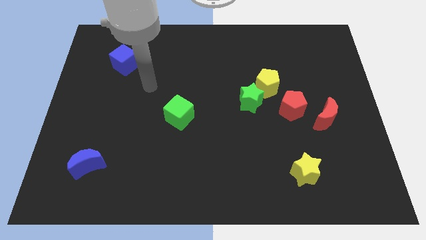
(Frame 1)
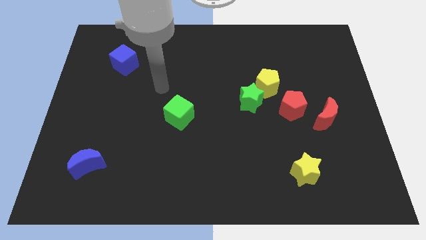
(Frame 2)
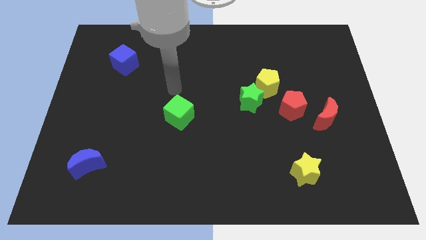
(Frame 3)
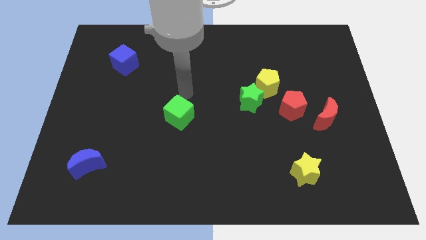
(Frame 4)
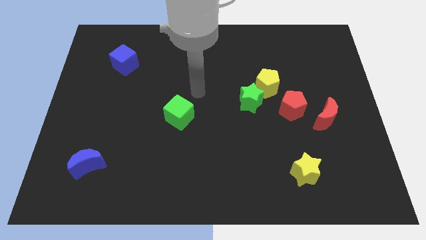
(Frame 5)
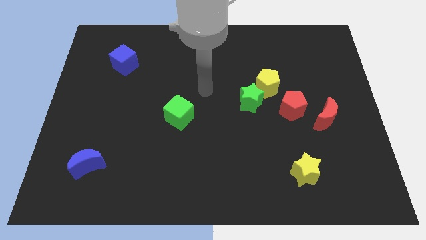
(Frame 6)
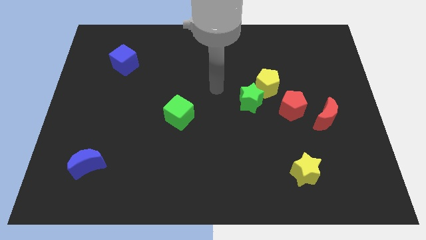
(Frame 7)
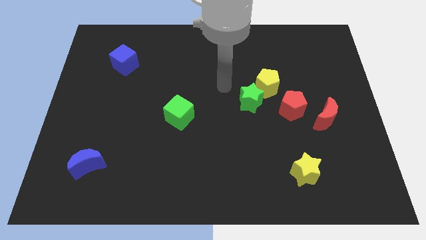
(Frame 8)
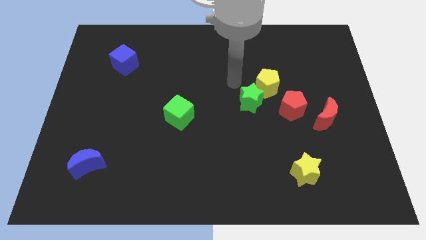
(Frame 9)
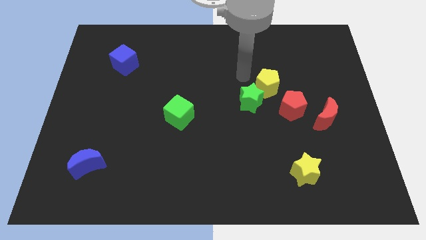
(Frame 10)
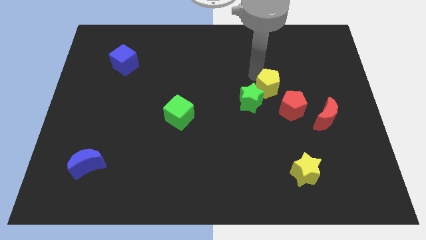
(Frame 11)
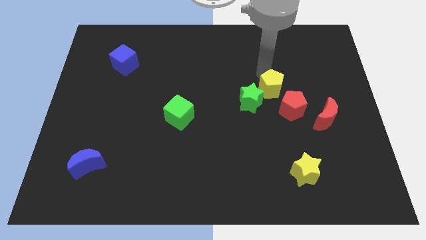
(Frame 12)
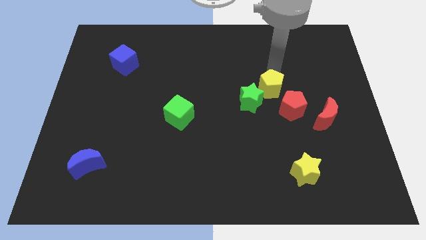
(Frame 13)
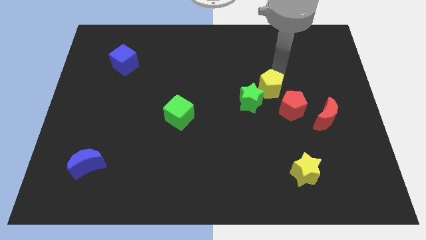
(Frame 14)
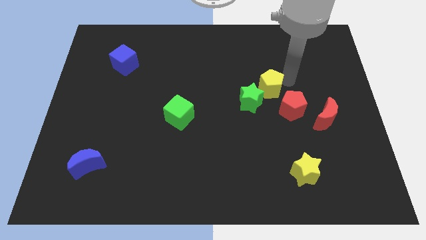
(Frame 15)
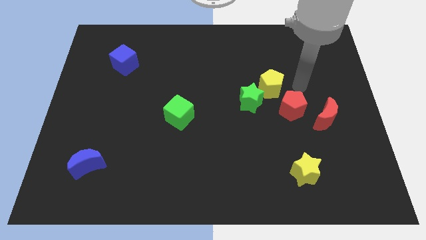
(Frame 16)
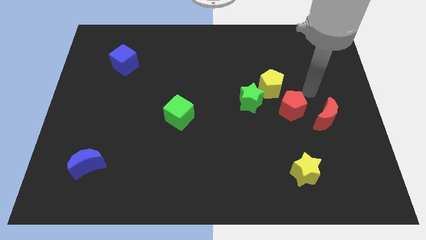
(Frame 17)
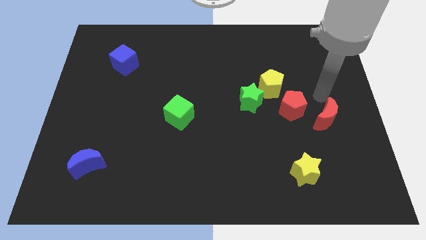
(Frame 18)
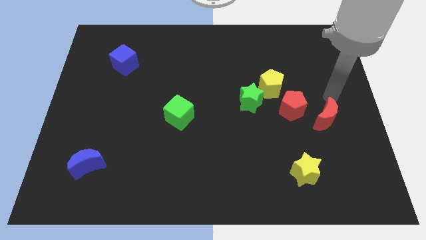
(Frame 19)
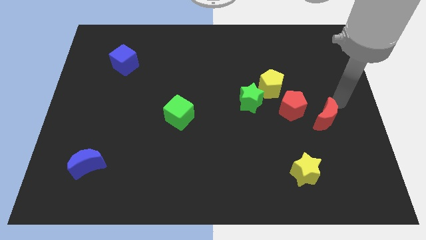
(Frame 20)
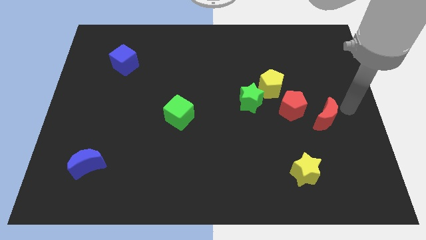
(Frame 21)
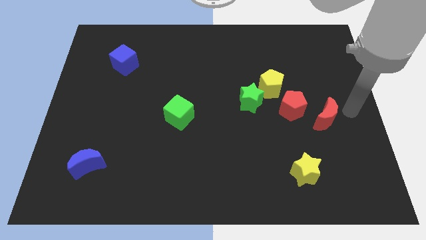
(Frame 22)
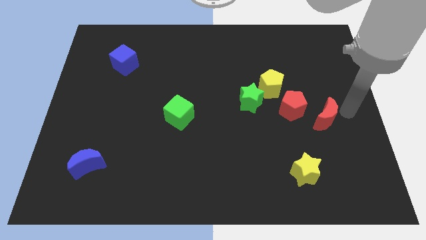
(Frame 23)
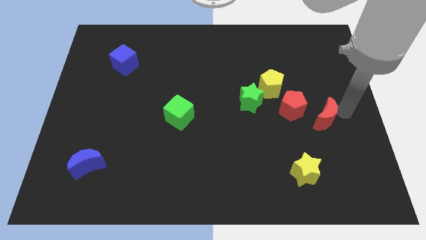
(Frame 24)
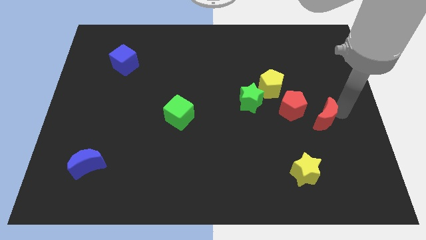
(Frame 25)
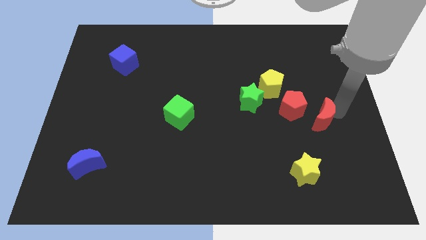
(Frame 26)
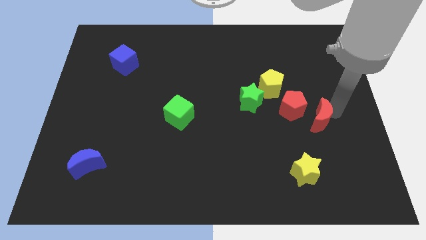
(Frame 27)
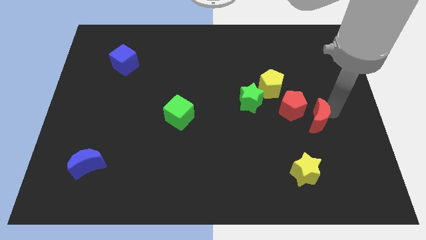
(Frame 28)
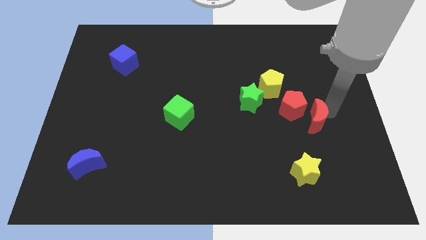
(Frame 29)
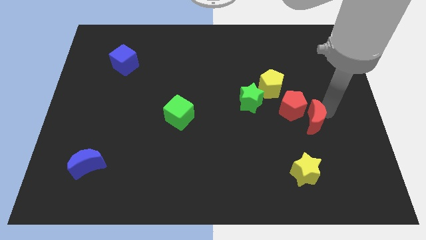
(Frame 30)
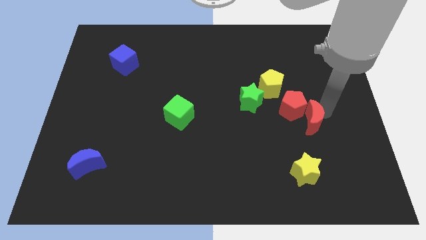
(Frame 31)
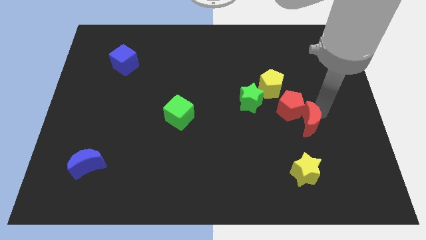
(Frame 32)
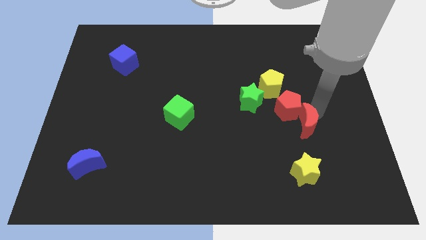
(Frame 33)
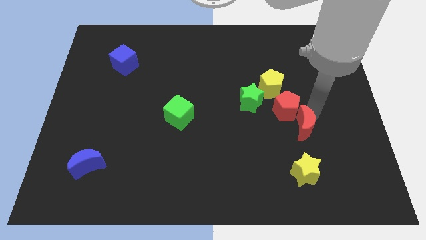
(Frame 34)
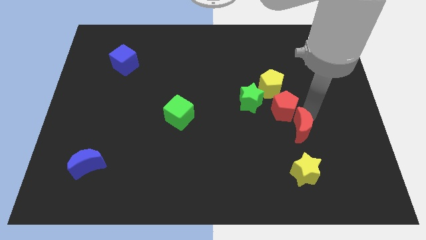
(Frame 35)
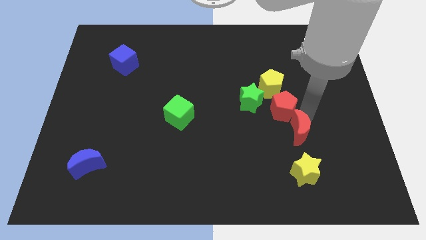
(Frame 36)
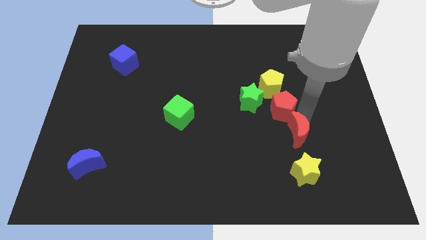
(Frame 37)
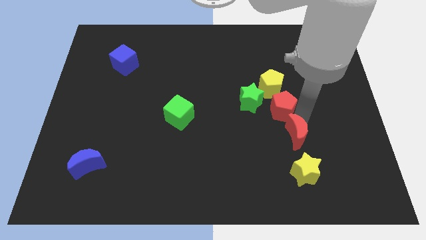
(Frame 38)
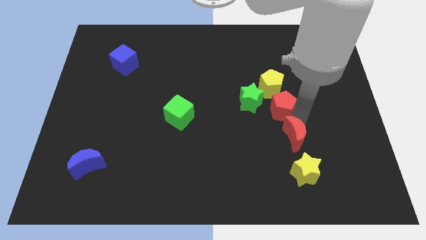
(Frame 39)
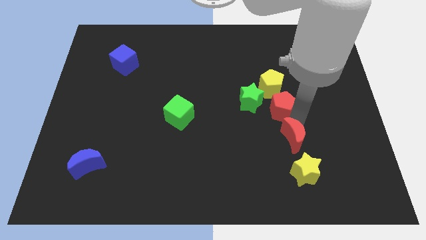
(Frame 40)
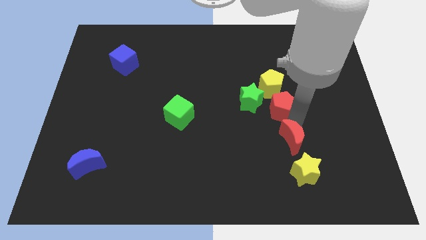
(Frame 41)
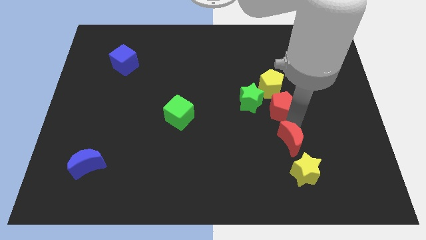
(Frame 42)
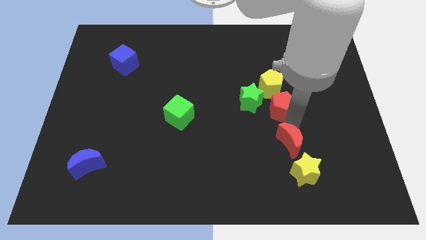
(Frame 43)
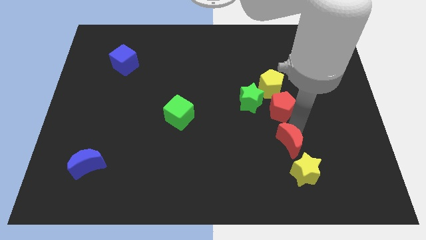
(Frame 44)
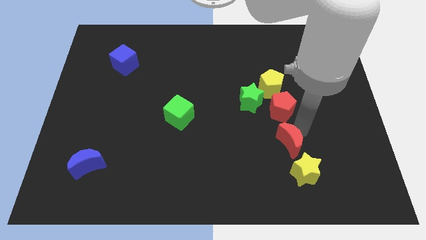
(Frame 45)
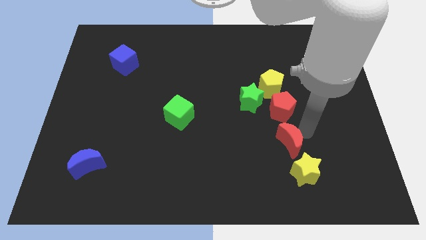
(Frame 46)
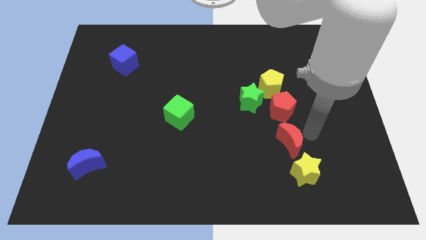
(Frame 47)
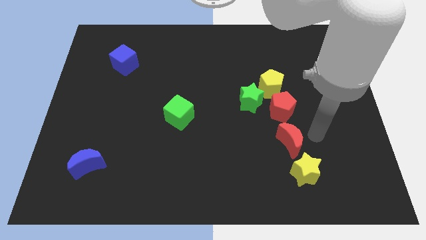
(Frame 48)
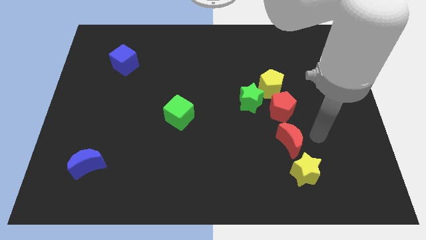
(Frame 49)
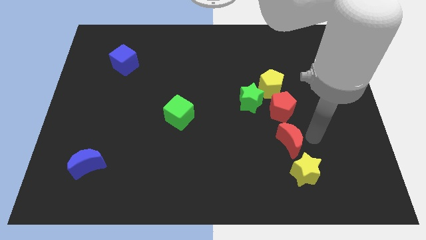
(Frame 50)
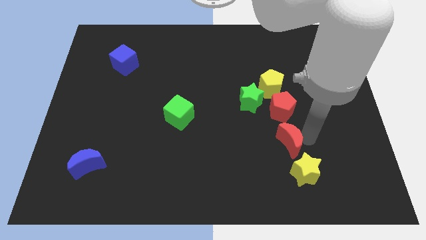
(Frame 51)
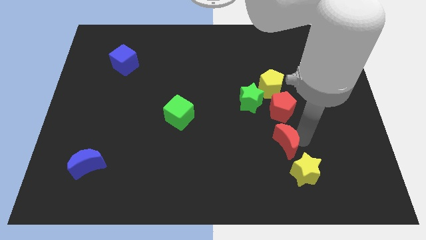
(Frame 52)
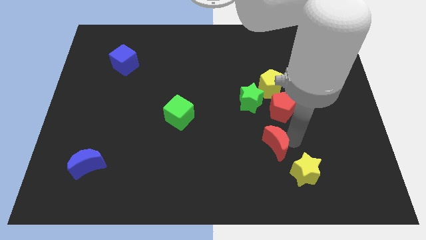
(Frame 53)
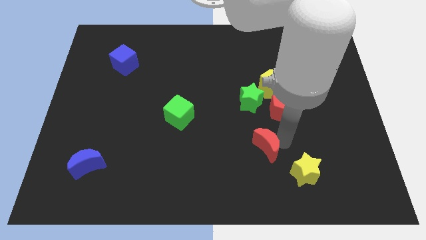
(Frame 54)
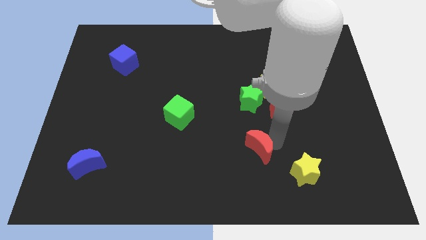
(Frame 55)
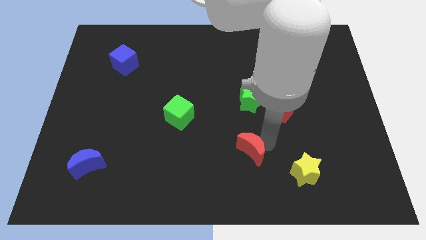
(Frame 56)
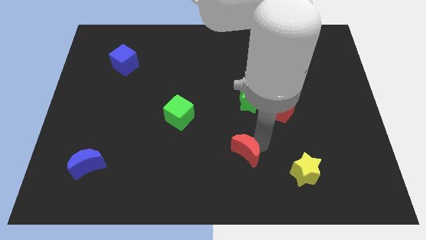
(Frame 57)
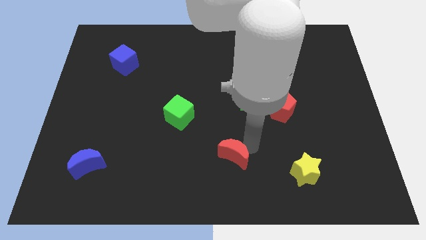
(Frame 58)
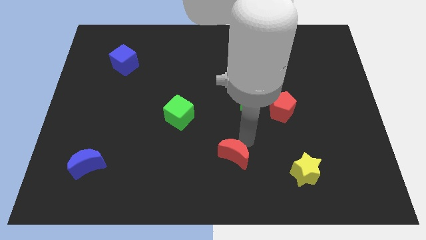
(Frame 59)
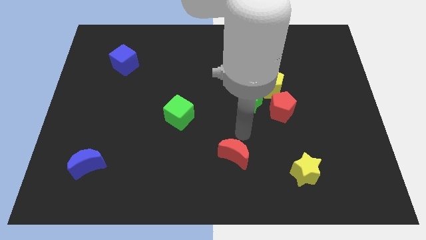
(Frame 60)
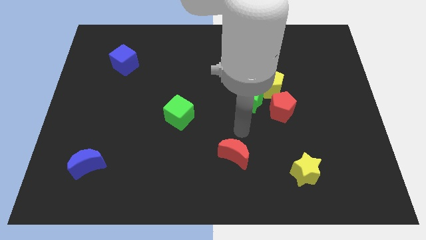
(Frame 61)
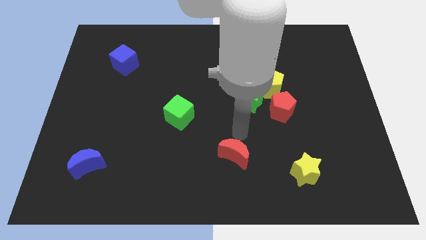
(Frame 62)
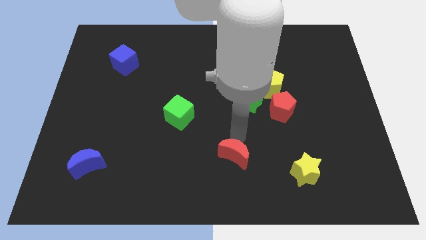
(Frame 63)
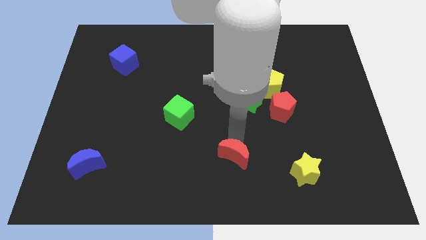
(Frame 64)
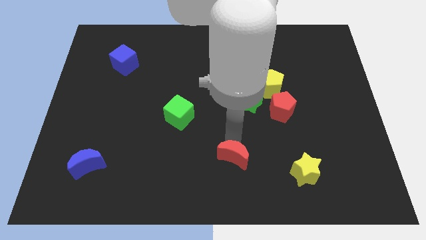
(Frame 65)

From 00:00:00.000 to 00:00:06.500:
put the red moon to the bottom side
